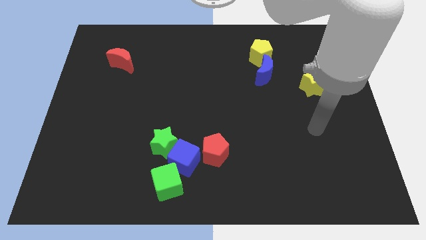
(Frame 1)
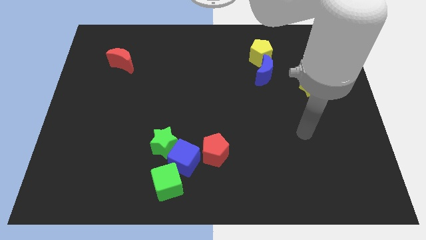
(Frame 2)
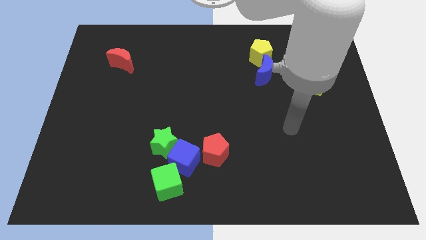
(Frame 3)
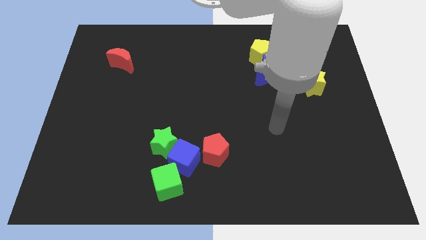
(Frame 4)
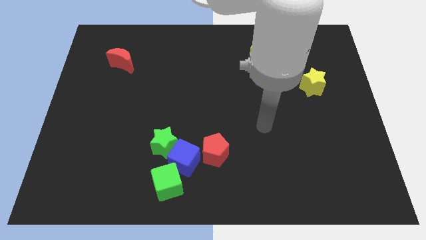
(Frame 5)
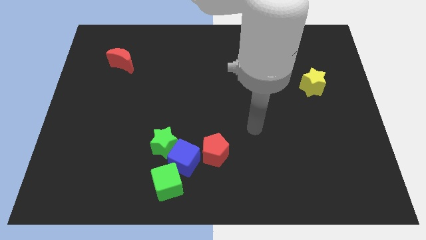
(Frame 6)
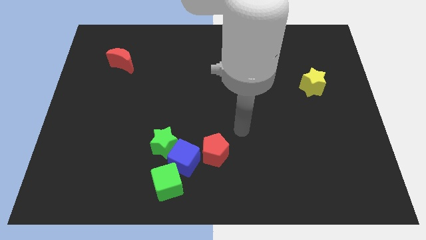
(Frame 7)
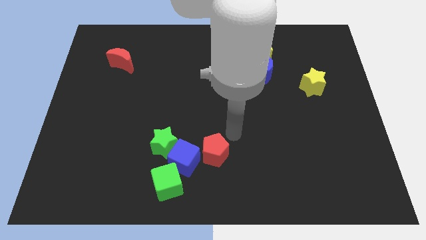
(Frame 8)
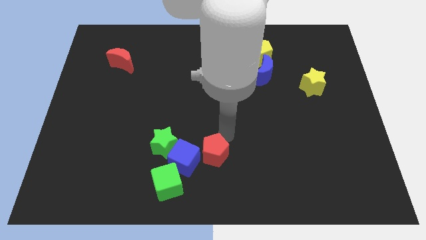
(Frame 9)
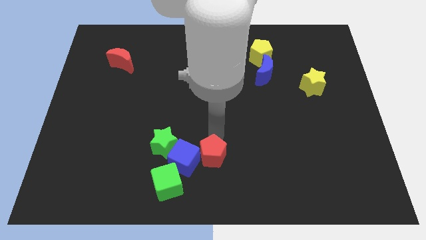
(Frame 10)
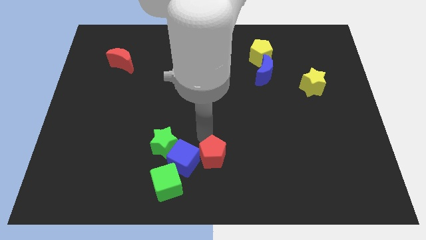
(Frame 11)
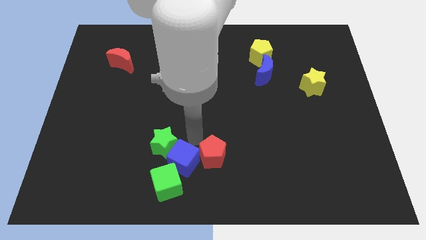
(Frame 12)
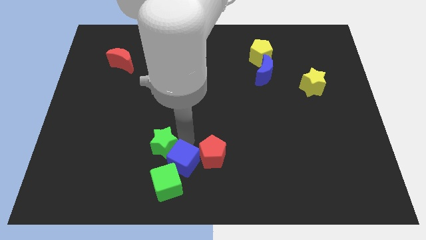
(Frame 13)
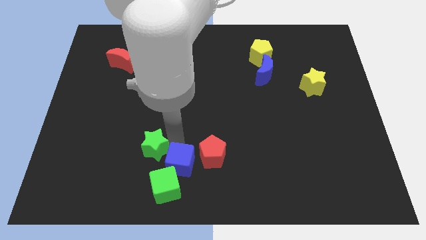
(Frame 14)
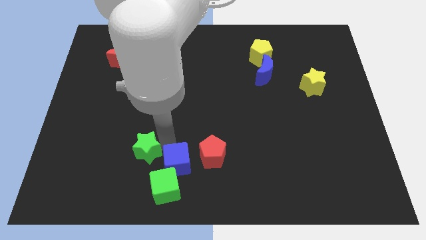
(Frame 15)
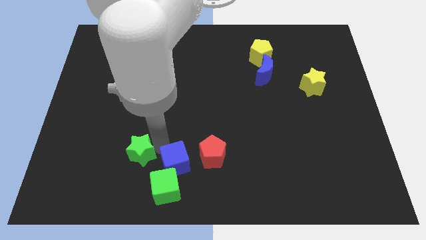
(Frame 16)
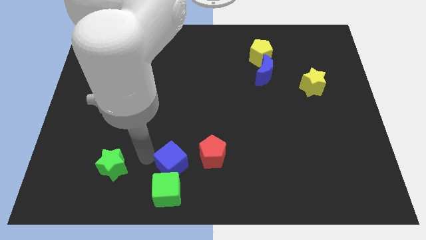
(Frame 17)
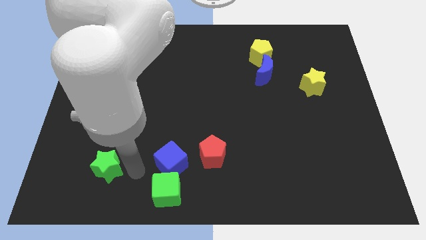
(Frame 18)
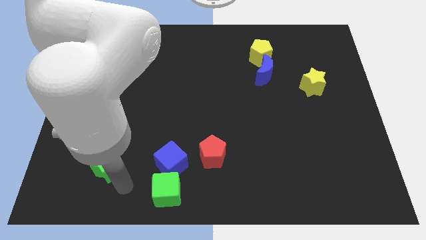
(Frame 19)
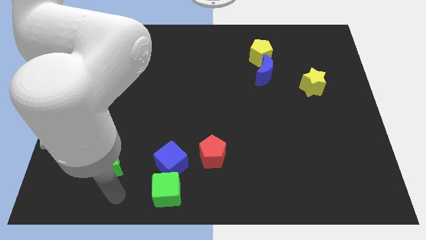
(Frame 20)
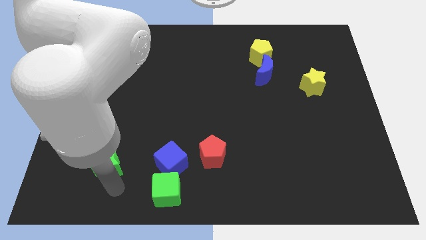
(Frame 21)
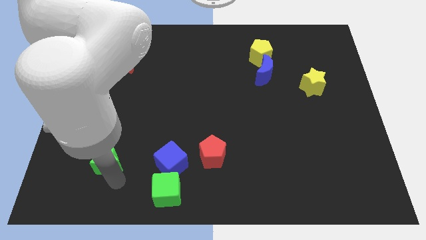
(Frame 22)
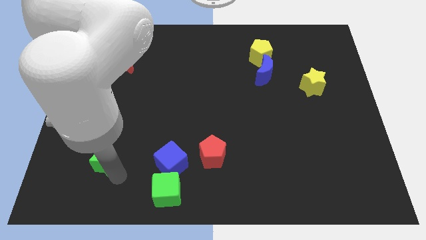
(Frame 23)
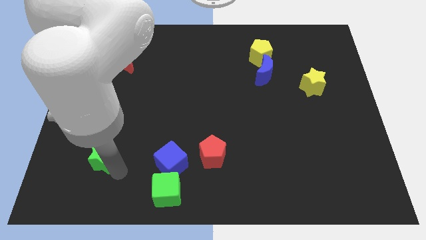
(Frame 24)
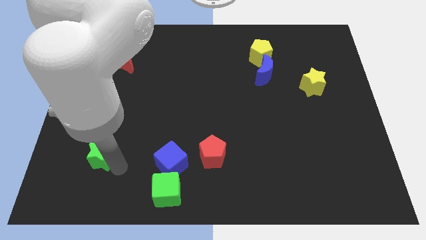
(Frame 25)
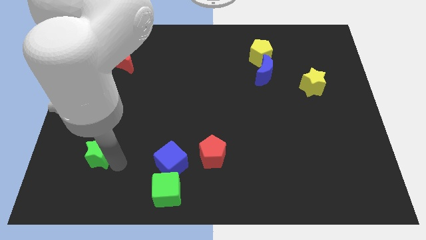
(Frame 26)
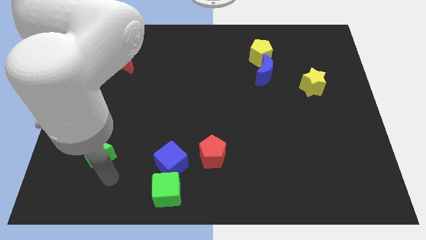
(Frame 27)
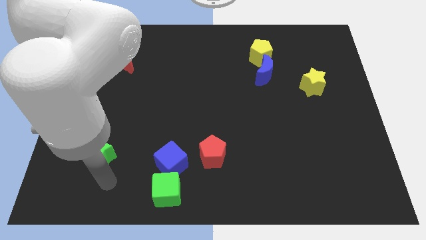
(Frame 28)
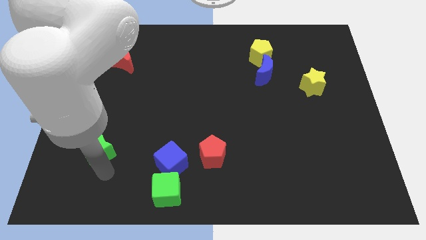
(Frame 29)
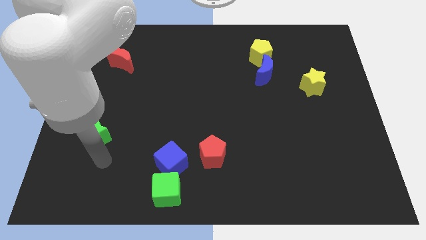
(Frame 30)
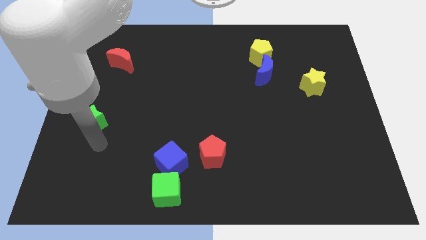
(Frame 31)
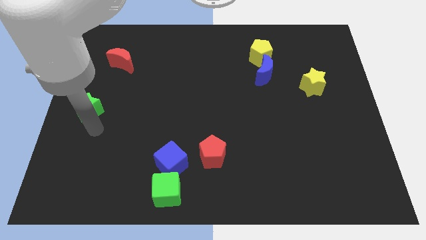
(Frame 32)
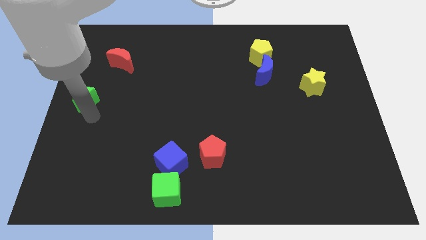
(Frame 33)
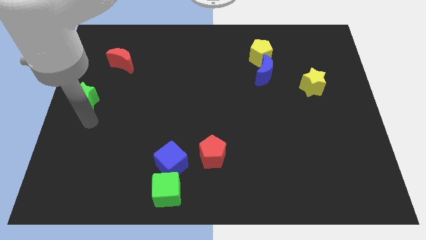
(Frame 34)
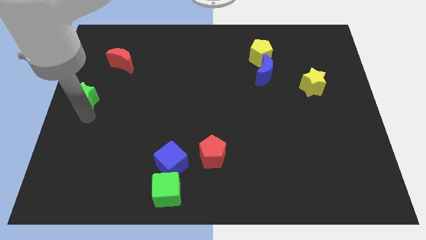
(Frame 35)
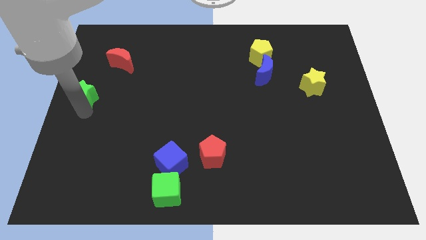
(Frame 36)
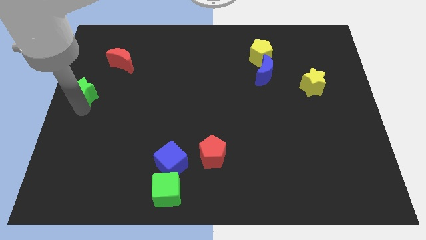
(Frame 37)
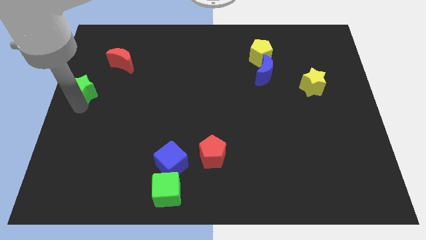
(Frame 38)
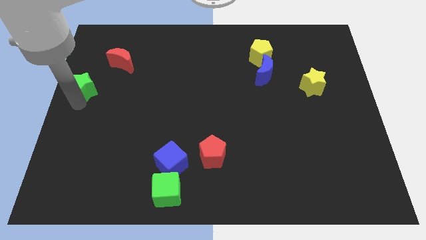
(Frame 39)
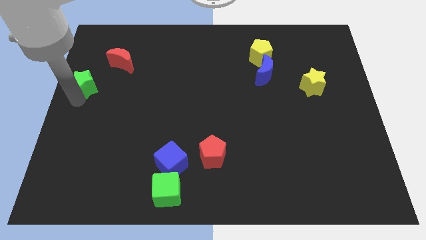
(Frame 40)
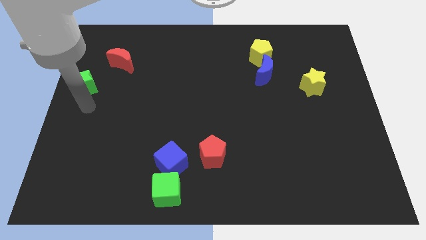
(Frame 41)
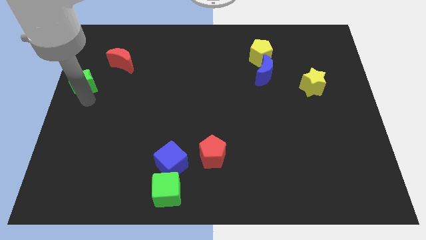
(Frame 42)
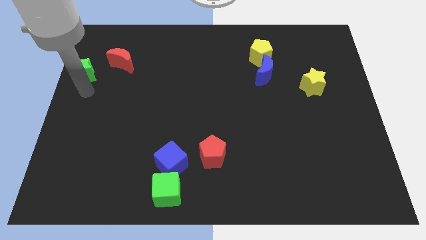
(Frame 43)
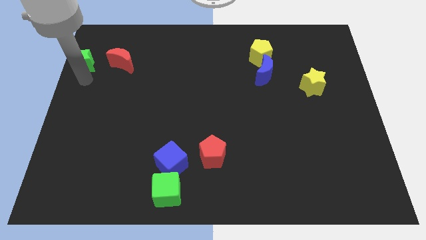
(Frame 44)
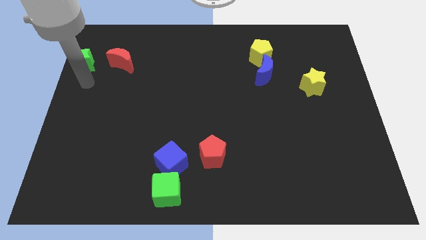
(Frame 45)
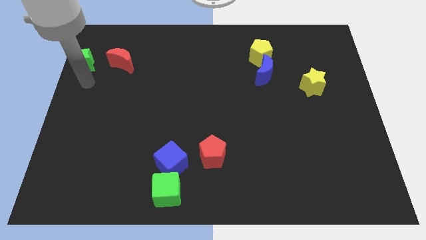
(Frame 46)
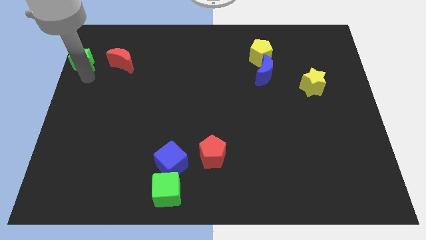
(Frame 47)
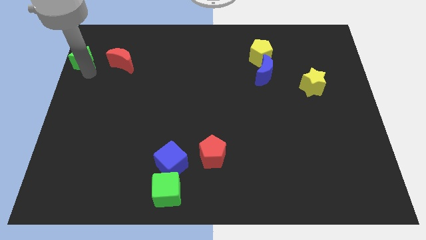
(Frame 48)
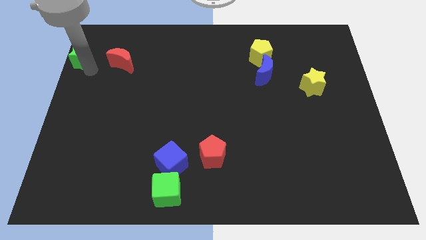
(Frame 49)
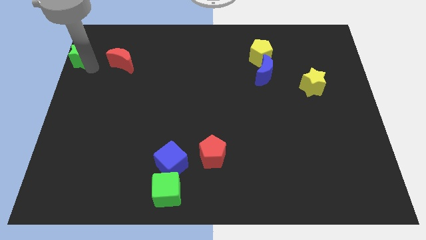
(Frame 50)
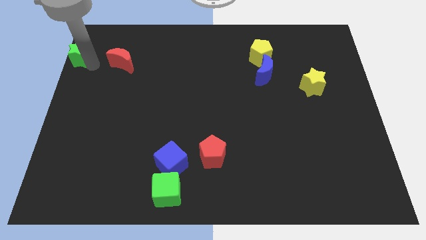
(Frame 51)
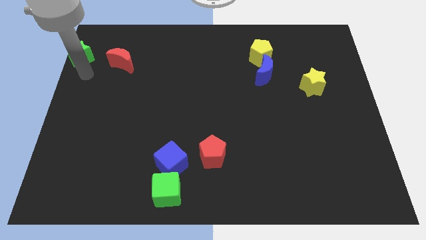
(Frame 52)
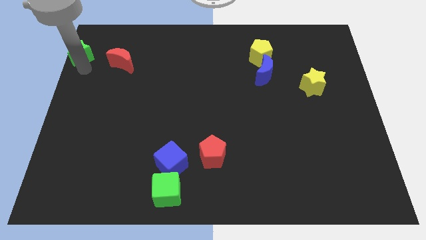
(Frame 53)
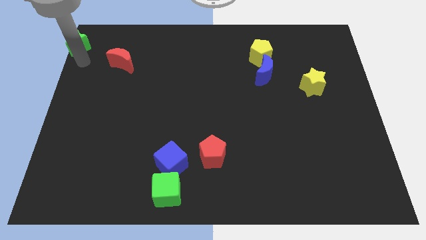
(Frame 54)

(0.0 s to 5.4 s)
put the green star to the top left
